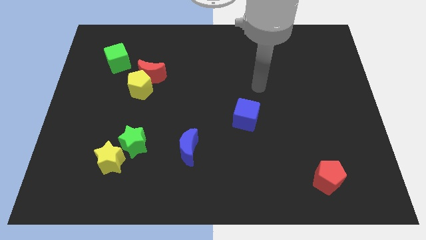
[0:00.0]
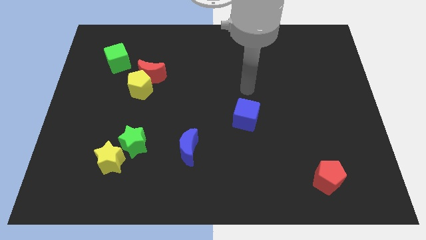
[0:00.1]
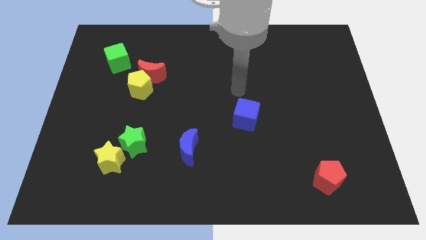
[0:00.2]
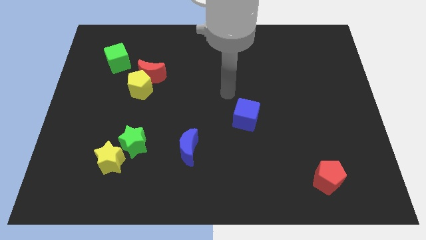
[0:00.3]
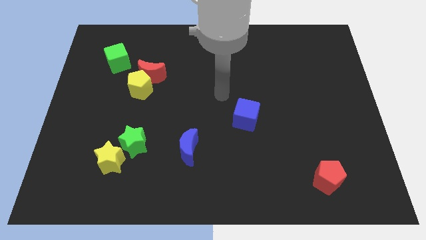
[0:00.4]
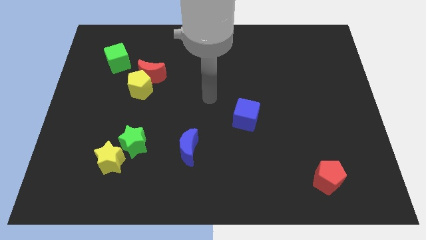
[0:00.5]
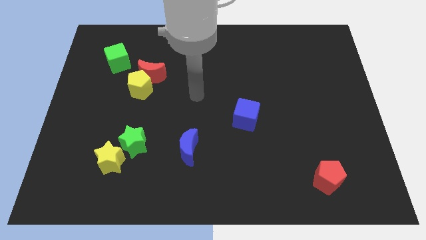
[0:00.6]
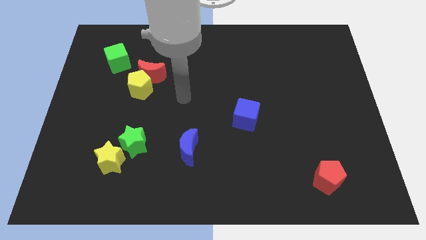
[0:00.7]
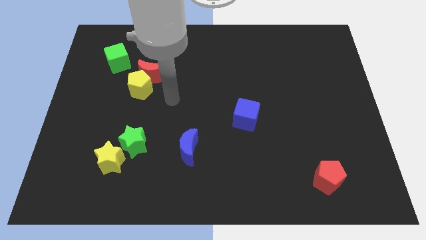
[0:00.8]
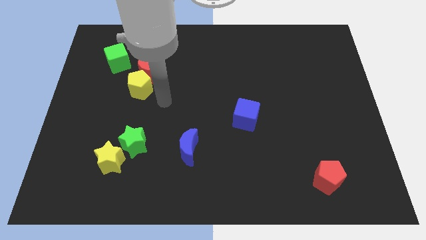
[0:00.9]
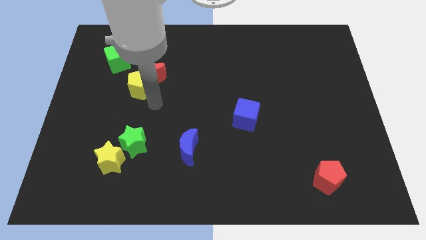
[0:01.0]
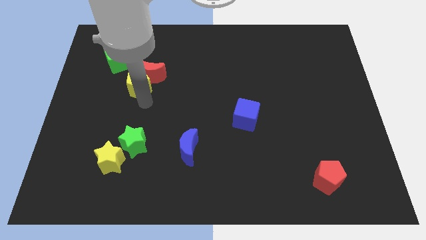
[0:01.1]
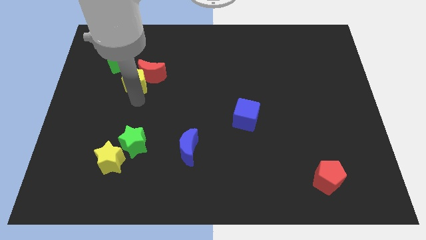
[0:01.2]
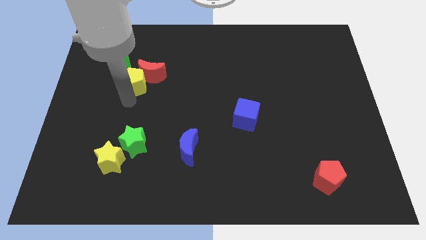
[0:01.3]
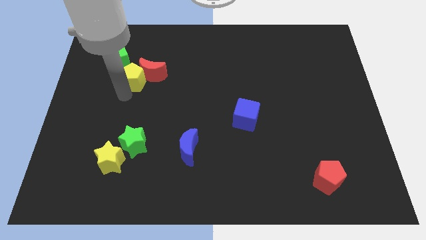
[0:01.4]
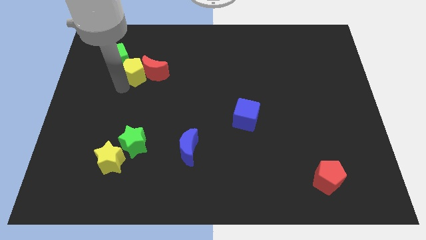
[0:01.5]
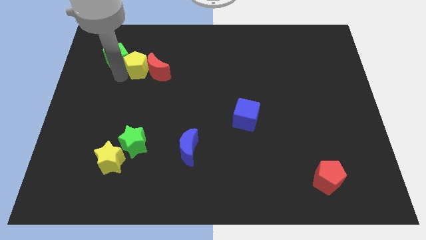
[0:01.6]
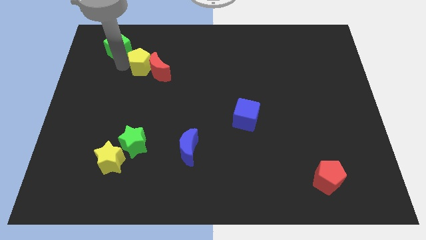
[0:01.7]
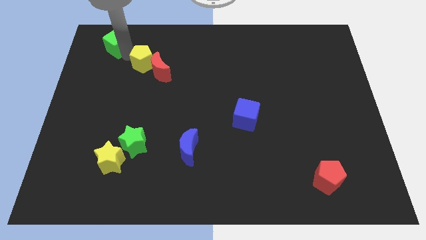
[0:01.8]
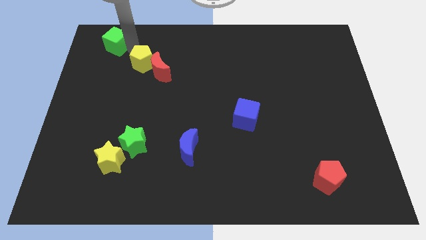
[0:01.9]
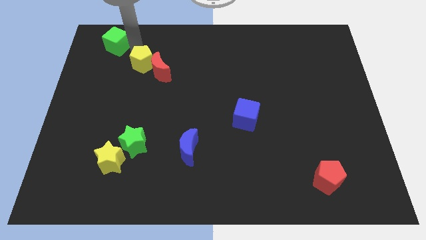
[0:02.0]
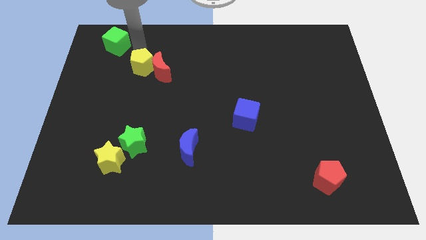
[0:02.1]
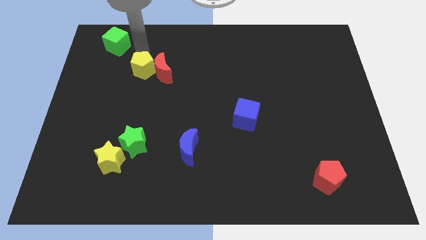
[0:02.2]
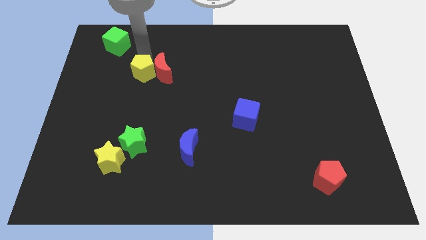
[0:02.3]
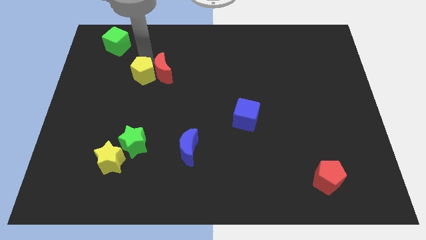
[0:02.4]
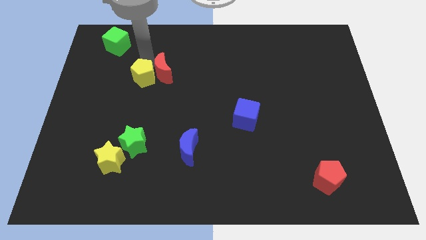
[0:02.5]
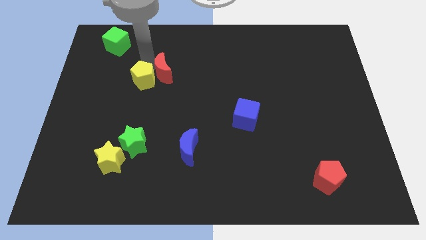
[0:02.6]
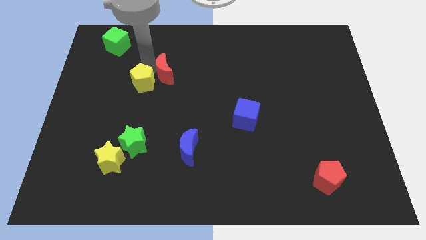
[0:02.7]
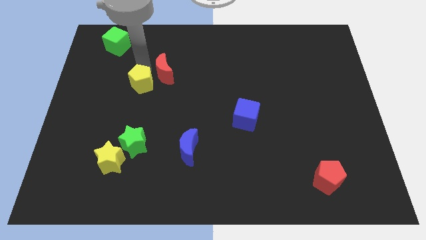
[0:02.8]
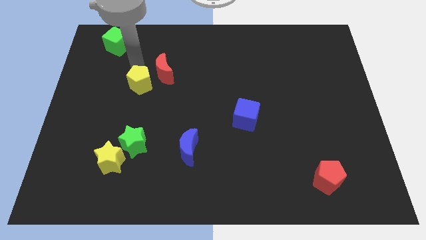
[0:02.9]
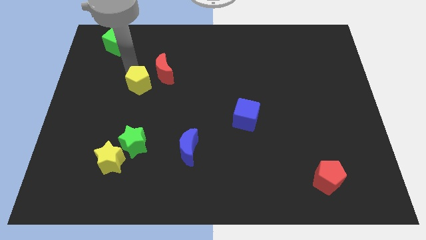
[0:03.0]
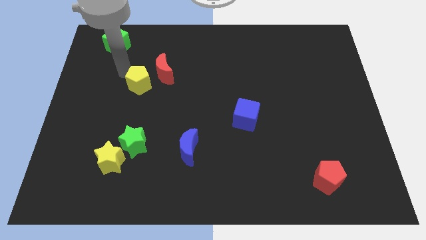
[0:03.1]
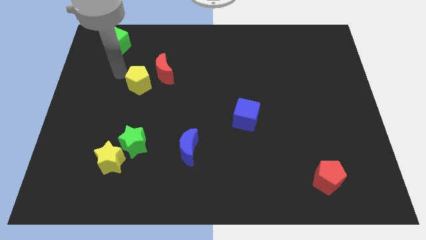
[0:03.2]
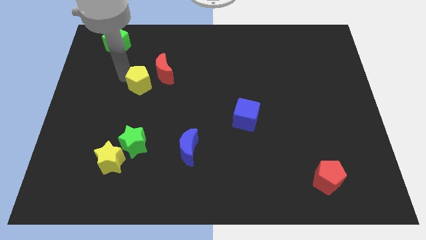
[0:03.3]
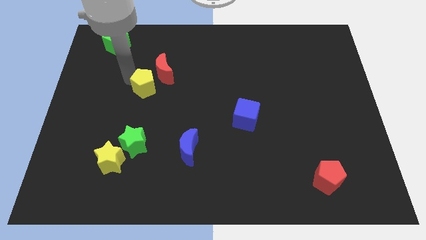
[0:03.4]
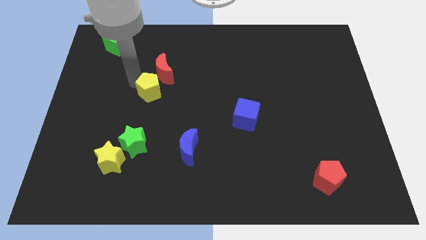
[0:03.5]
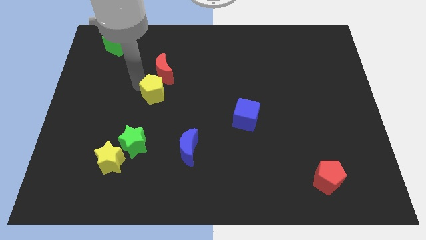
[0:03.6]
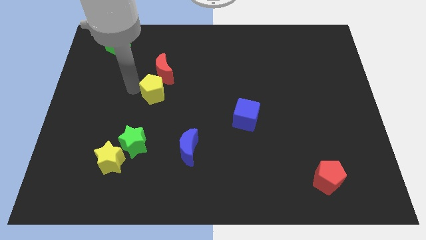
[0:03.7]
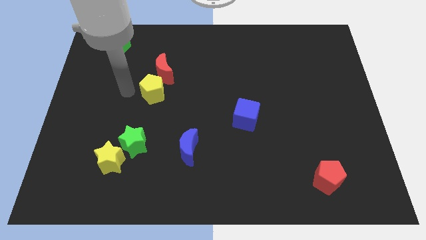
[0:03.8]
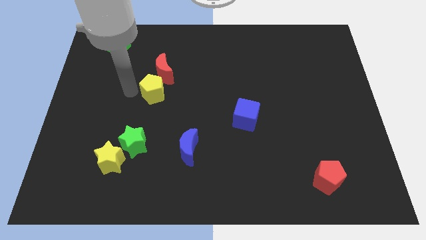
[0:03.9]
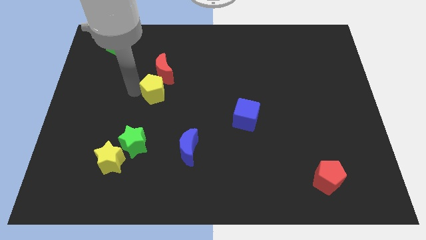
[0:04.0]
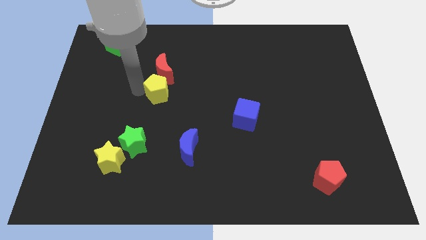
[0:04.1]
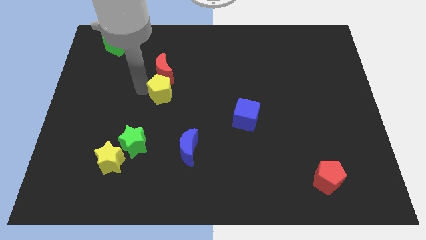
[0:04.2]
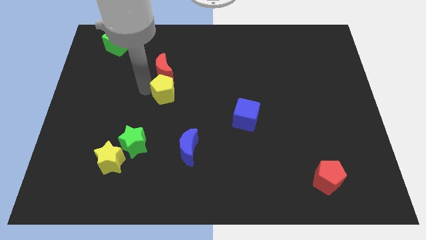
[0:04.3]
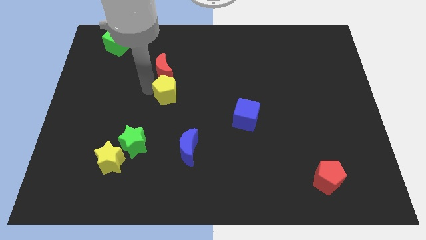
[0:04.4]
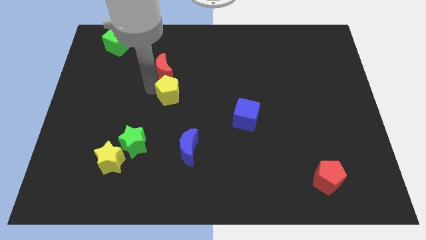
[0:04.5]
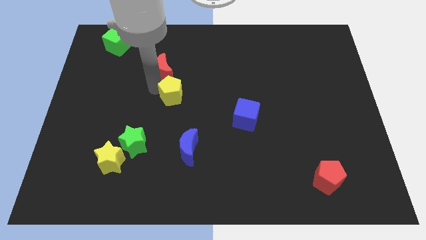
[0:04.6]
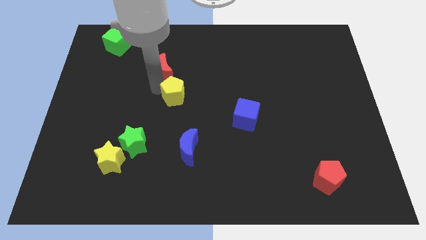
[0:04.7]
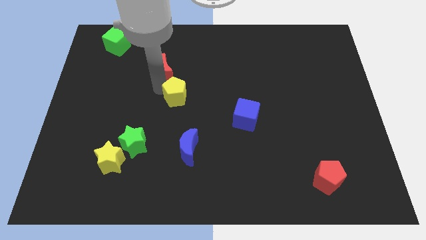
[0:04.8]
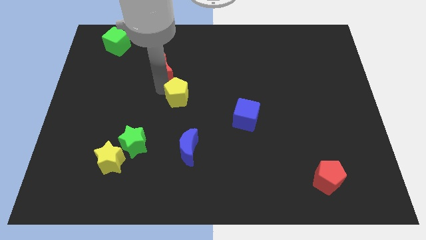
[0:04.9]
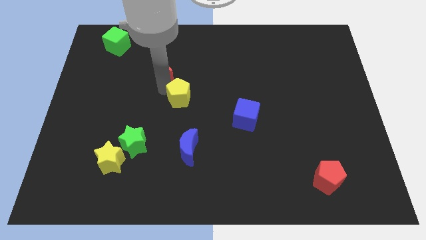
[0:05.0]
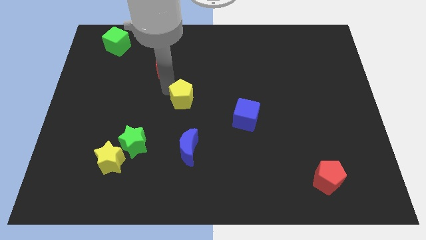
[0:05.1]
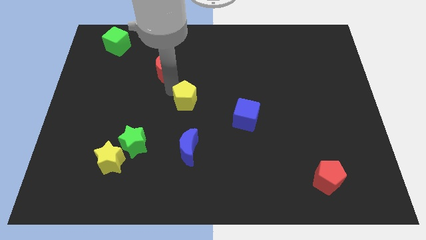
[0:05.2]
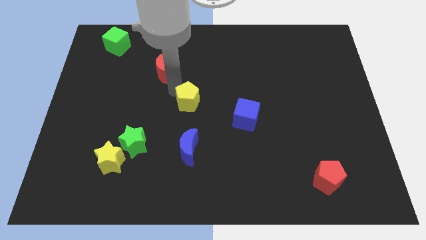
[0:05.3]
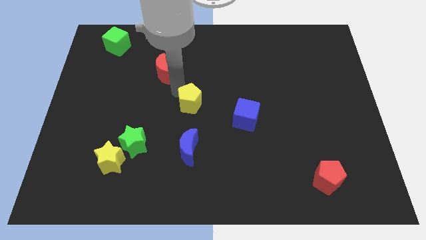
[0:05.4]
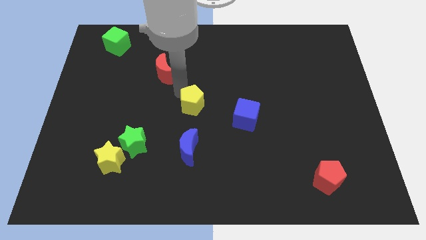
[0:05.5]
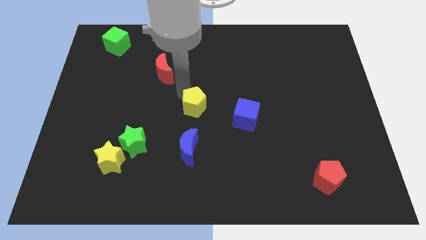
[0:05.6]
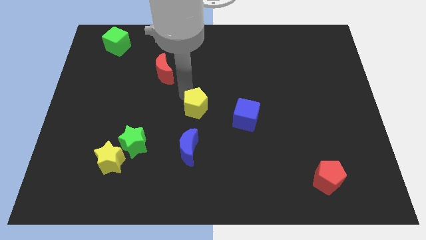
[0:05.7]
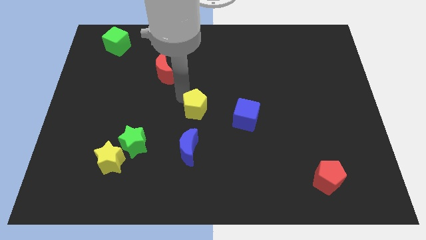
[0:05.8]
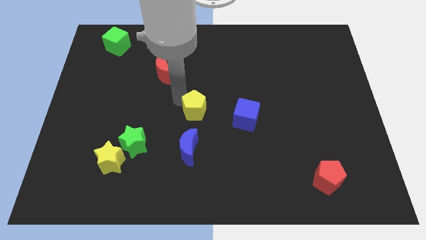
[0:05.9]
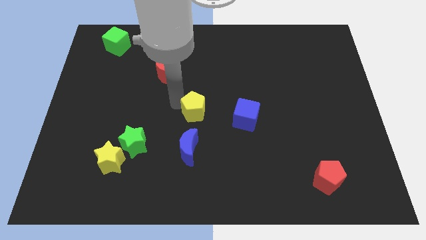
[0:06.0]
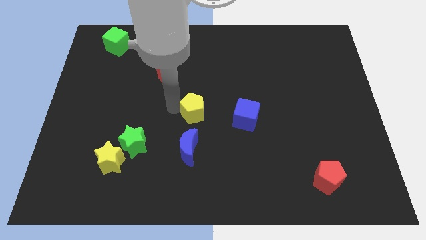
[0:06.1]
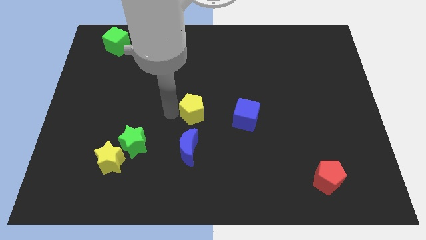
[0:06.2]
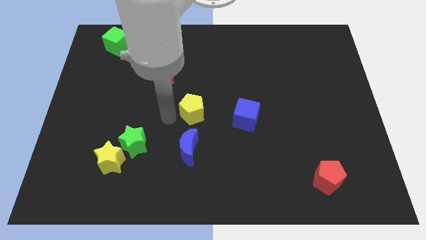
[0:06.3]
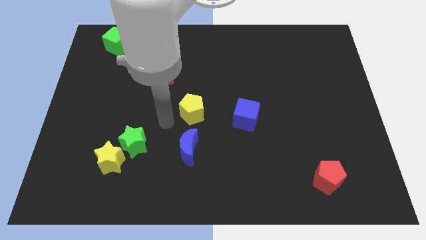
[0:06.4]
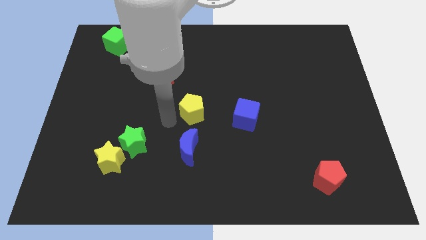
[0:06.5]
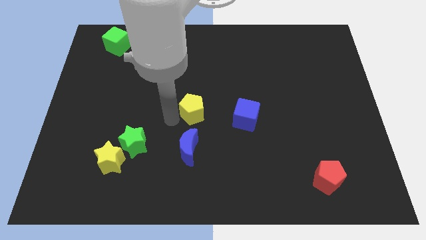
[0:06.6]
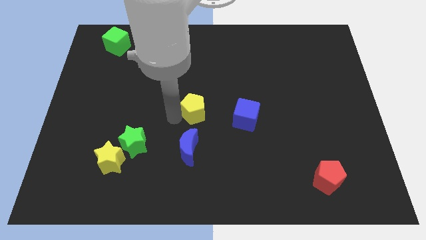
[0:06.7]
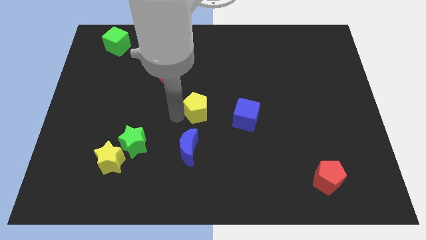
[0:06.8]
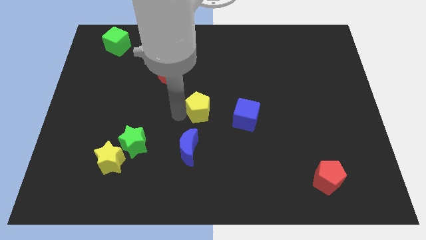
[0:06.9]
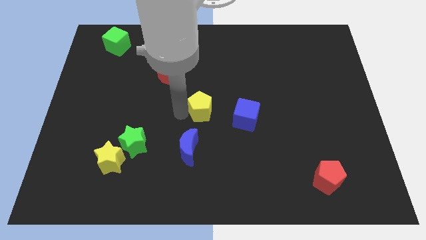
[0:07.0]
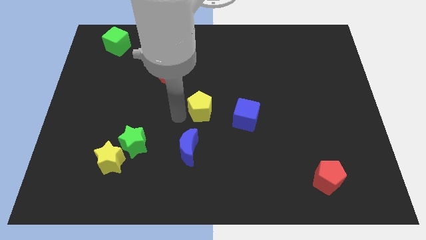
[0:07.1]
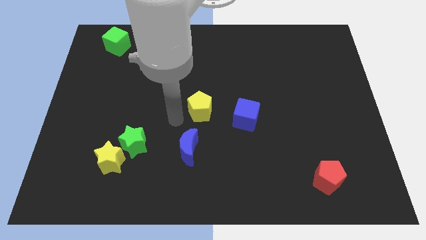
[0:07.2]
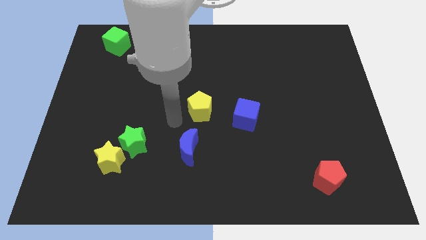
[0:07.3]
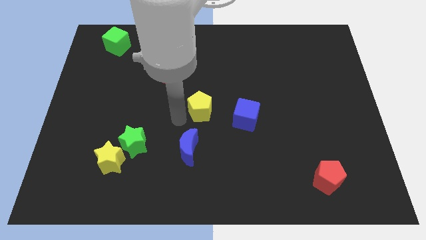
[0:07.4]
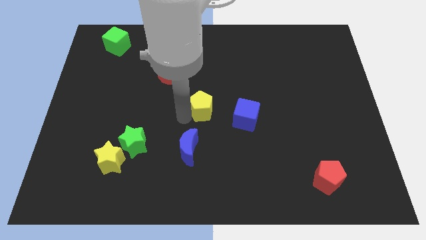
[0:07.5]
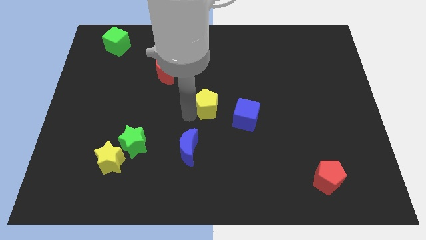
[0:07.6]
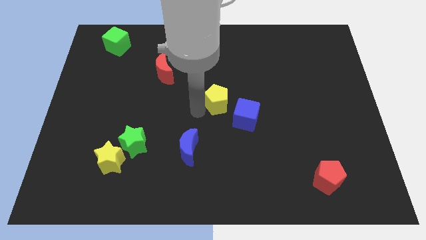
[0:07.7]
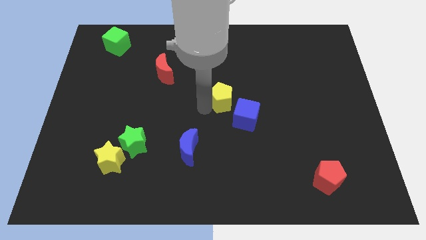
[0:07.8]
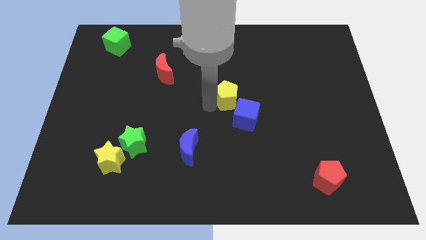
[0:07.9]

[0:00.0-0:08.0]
slide the yellow pentagon to the right
